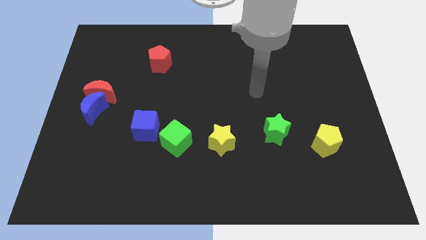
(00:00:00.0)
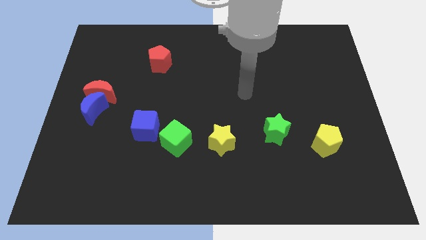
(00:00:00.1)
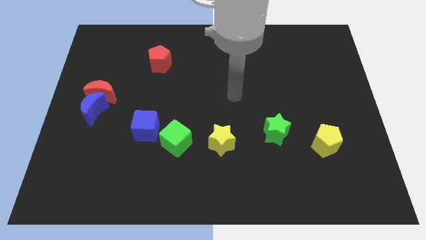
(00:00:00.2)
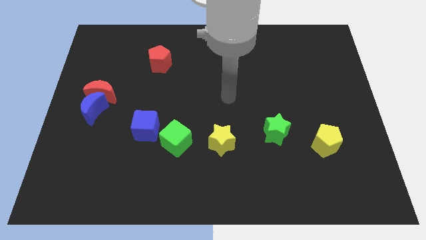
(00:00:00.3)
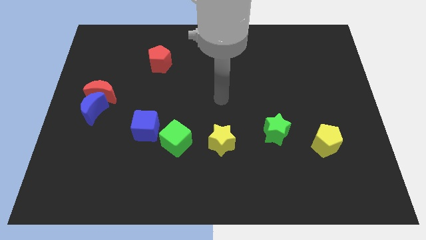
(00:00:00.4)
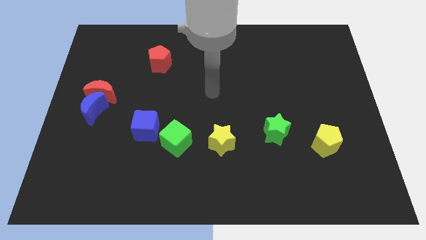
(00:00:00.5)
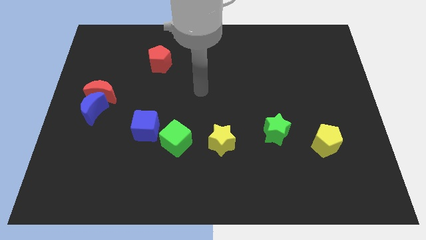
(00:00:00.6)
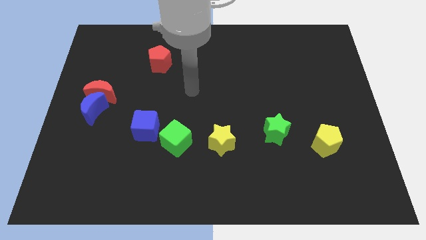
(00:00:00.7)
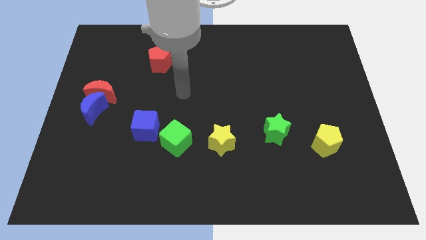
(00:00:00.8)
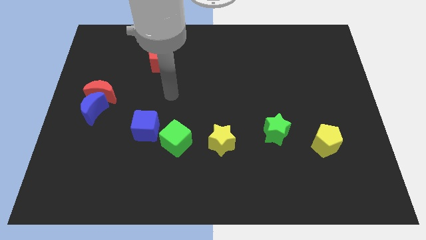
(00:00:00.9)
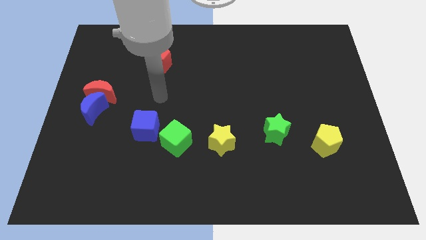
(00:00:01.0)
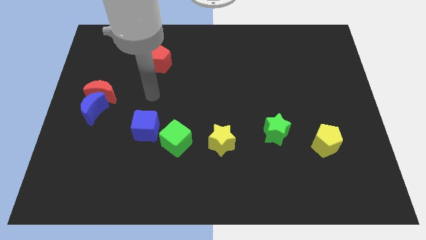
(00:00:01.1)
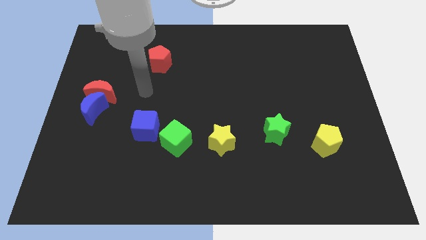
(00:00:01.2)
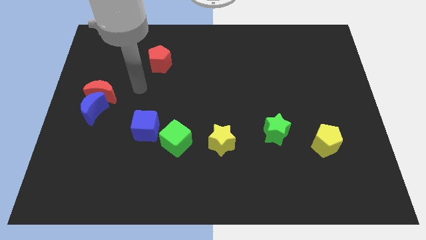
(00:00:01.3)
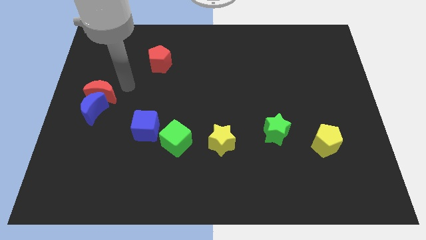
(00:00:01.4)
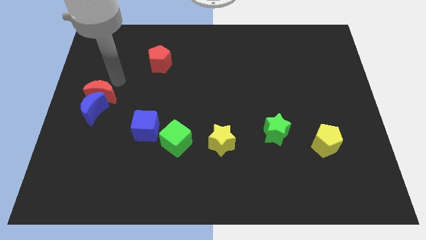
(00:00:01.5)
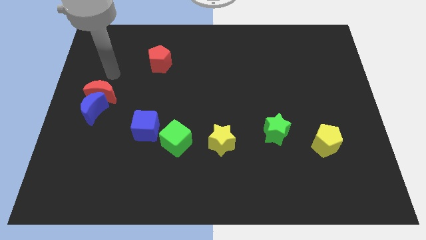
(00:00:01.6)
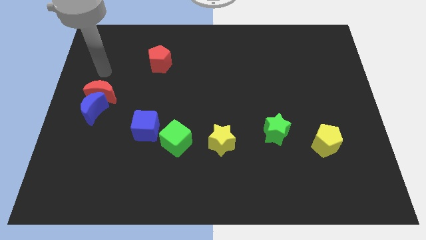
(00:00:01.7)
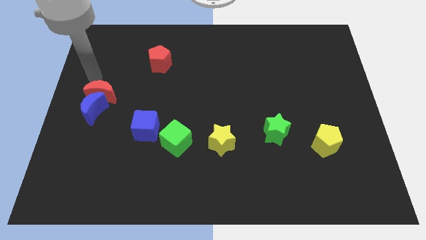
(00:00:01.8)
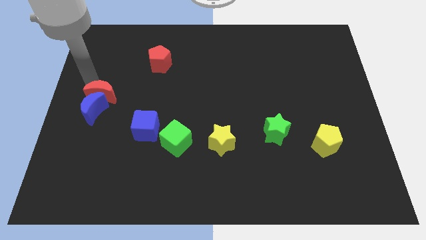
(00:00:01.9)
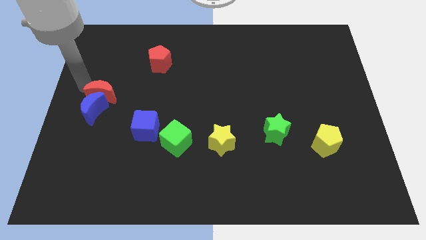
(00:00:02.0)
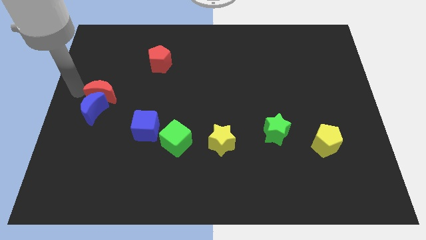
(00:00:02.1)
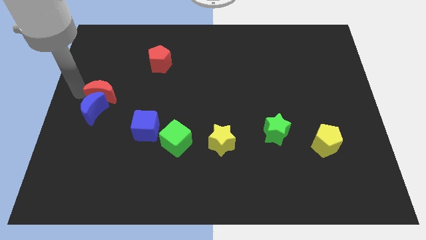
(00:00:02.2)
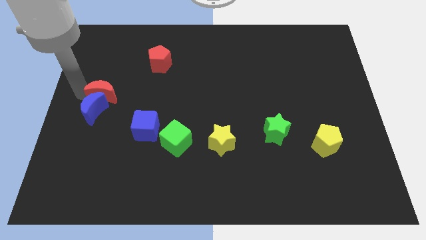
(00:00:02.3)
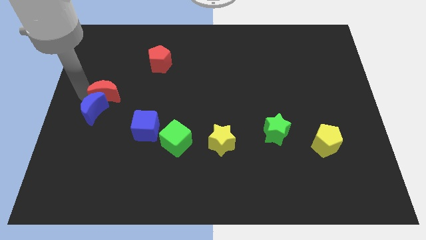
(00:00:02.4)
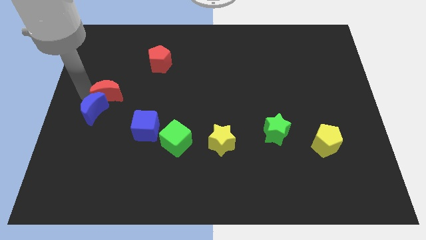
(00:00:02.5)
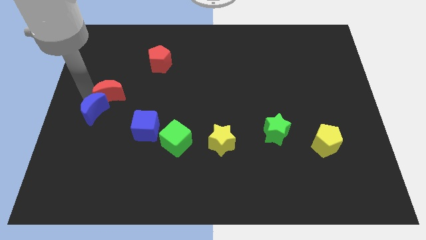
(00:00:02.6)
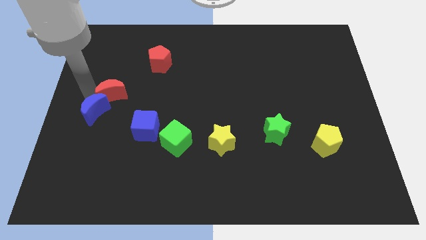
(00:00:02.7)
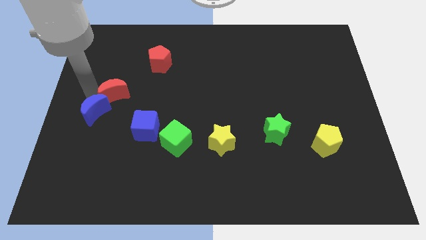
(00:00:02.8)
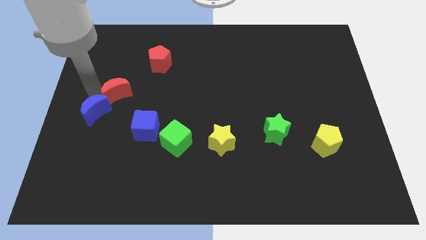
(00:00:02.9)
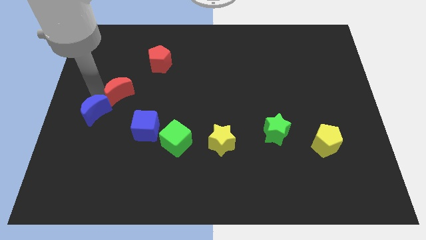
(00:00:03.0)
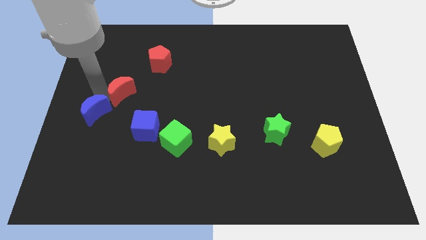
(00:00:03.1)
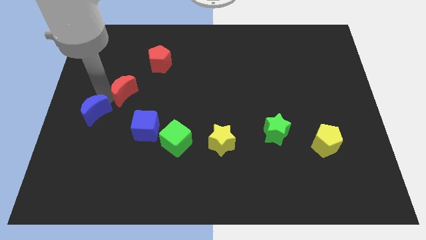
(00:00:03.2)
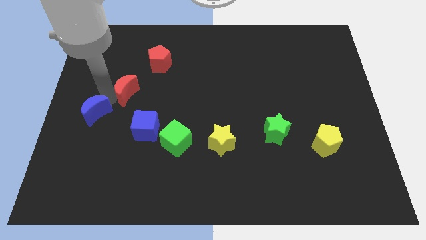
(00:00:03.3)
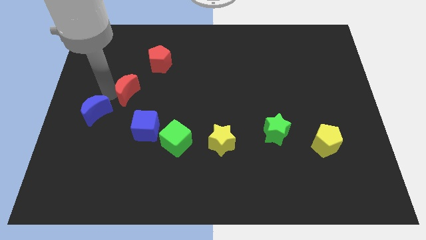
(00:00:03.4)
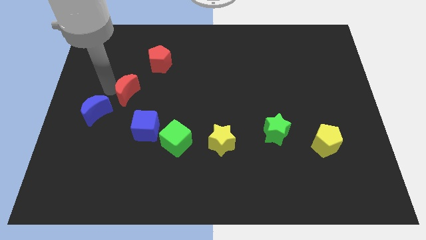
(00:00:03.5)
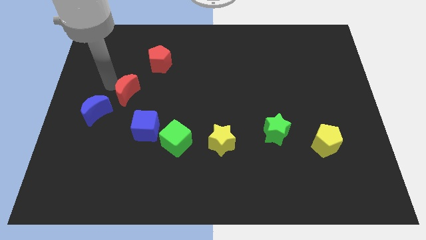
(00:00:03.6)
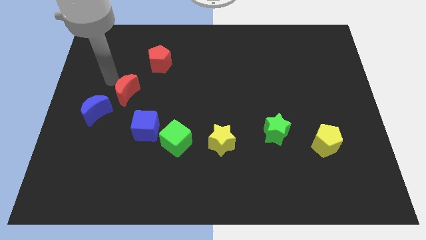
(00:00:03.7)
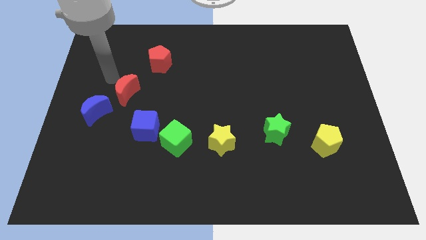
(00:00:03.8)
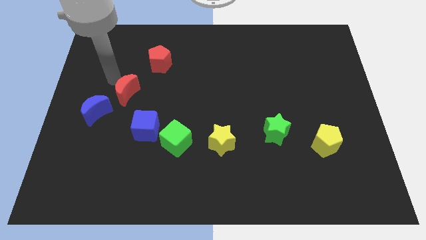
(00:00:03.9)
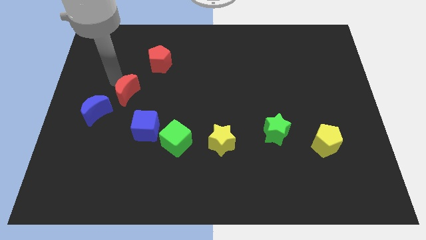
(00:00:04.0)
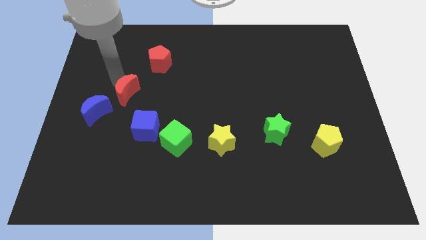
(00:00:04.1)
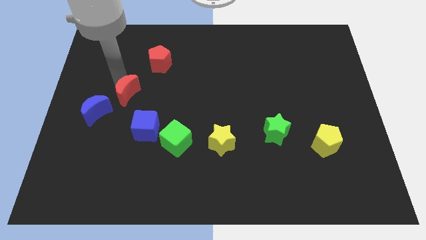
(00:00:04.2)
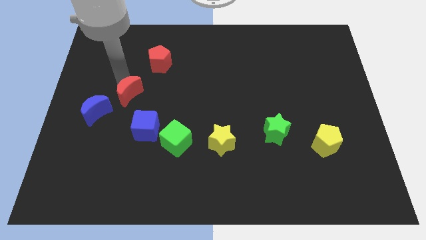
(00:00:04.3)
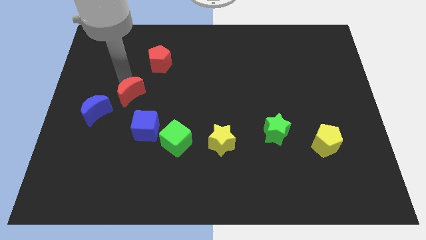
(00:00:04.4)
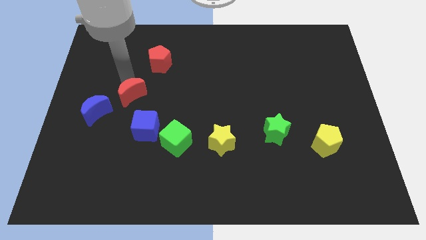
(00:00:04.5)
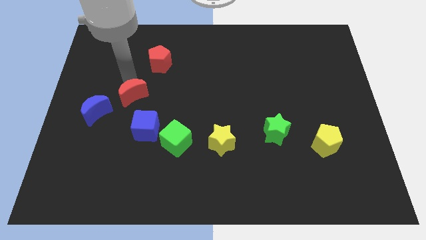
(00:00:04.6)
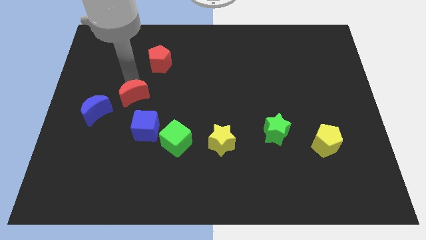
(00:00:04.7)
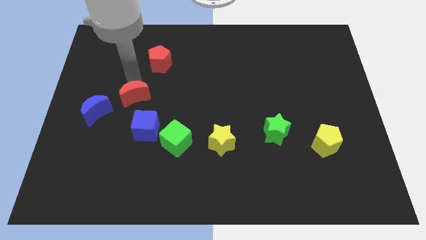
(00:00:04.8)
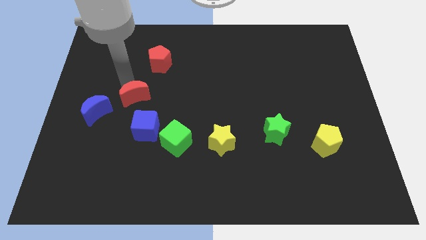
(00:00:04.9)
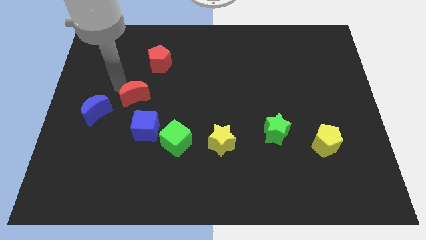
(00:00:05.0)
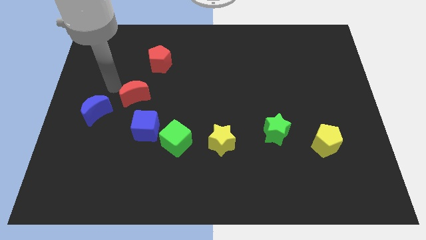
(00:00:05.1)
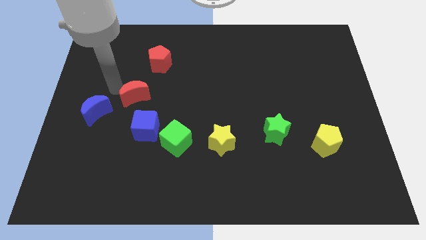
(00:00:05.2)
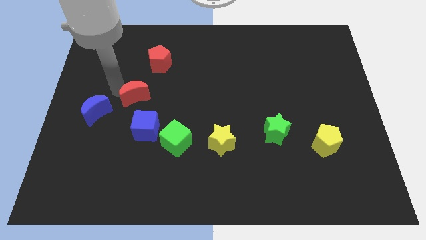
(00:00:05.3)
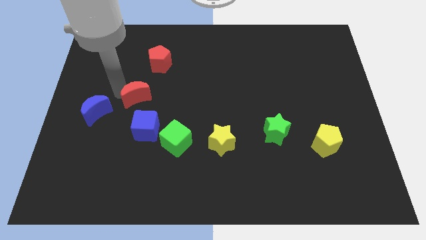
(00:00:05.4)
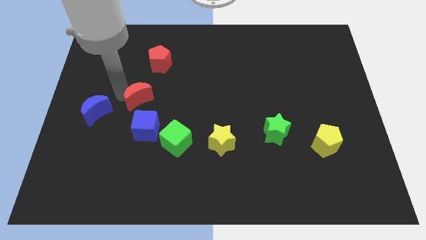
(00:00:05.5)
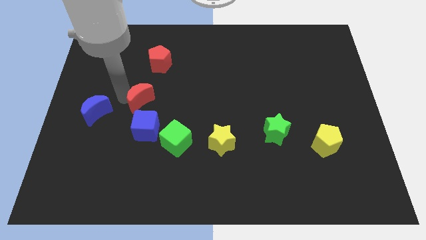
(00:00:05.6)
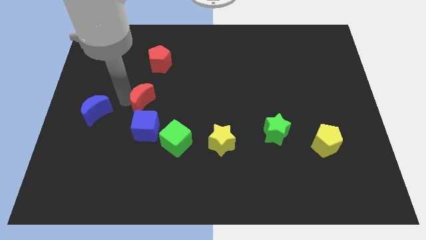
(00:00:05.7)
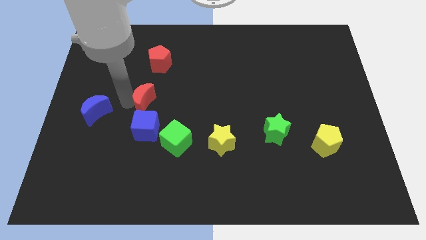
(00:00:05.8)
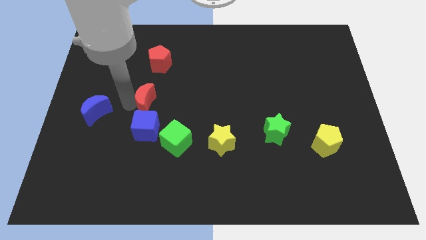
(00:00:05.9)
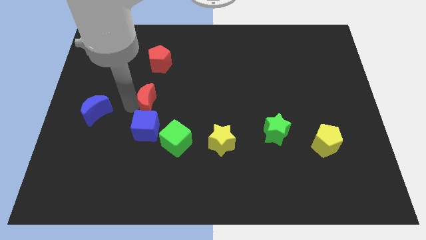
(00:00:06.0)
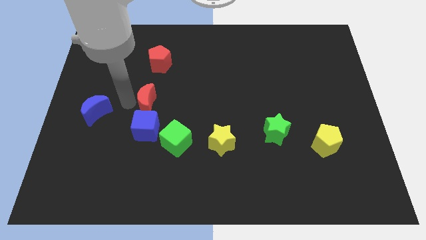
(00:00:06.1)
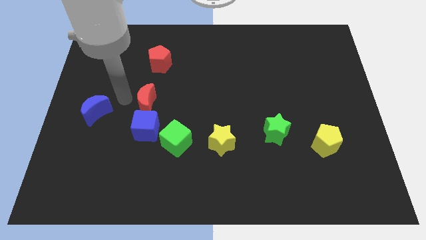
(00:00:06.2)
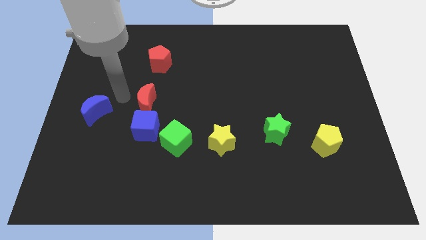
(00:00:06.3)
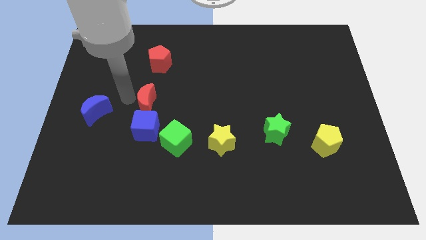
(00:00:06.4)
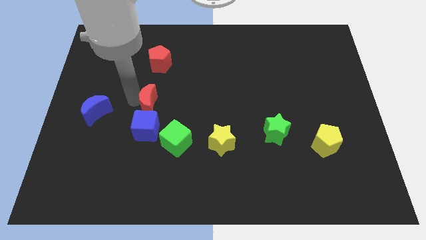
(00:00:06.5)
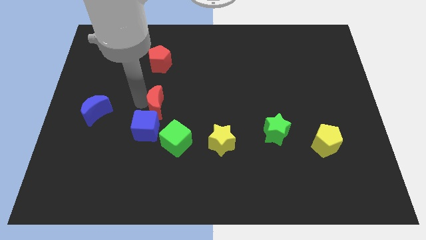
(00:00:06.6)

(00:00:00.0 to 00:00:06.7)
push the red moon to the top right side of the blue cube

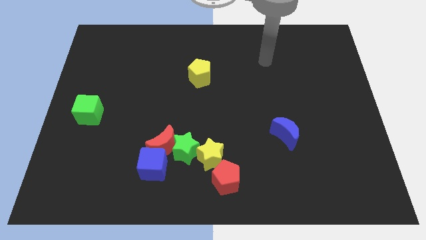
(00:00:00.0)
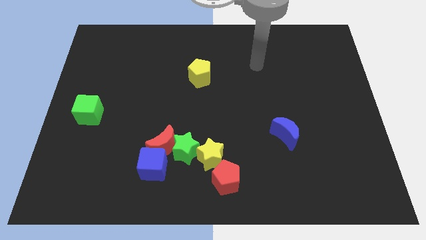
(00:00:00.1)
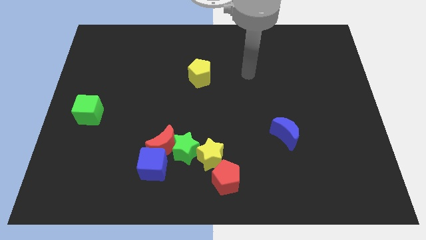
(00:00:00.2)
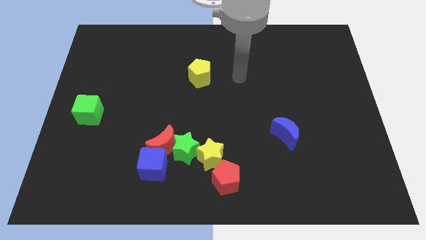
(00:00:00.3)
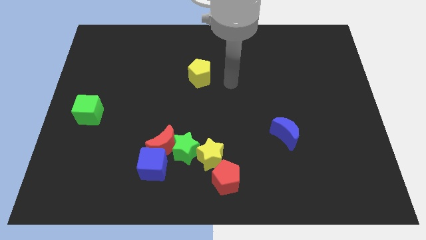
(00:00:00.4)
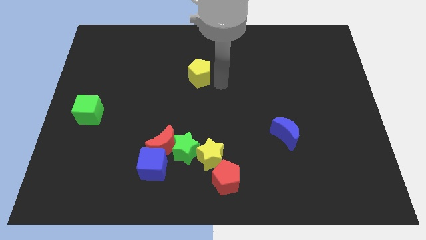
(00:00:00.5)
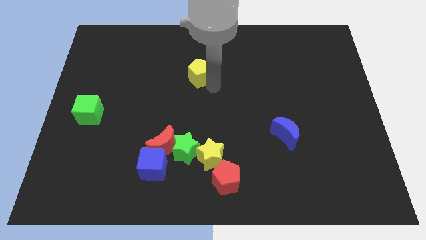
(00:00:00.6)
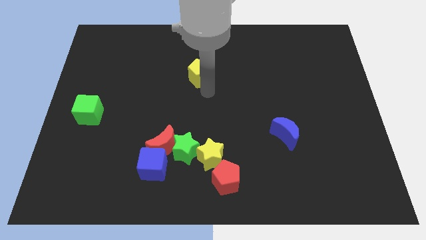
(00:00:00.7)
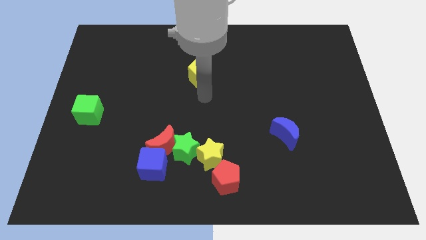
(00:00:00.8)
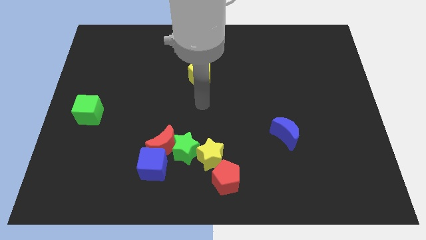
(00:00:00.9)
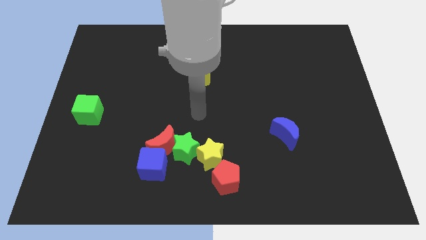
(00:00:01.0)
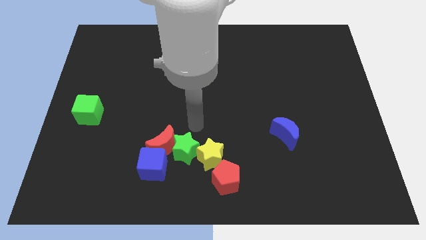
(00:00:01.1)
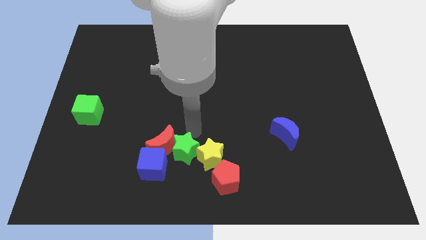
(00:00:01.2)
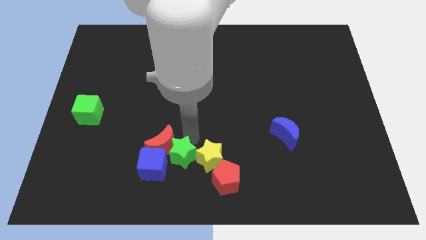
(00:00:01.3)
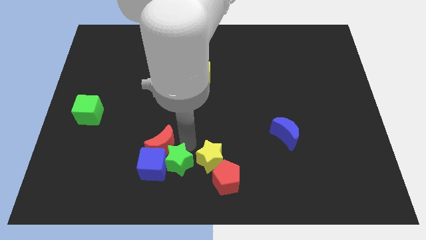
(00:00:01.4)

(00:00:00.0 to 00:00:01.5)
push the green star to the left side of the red pentagon
